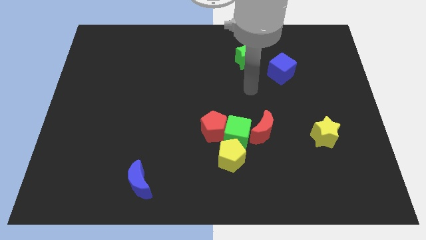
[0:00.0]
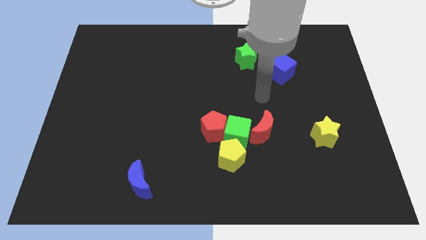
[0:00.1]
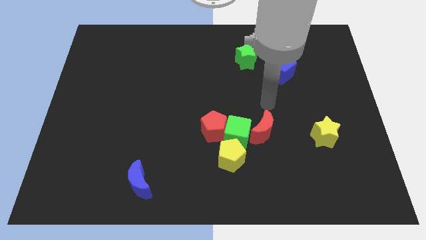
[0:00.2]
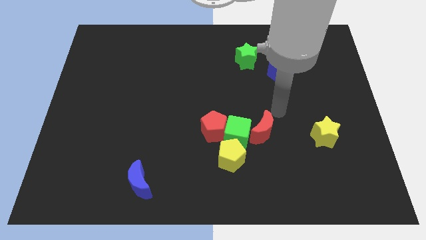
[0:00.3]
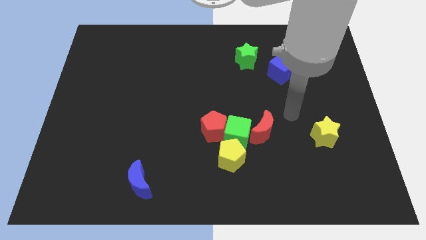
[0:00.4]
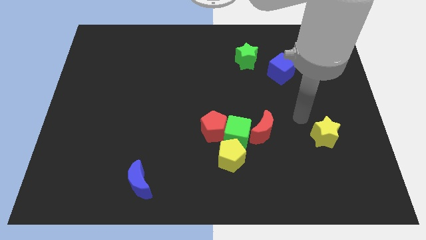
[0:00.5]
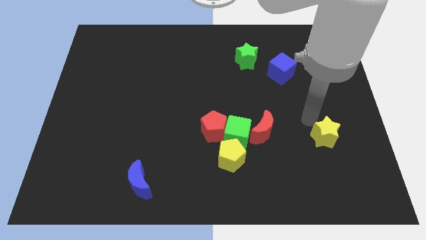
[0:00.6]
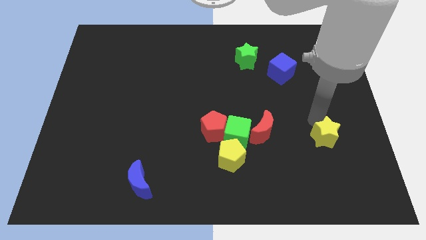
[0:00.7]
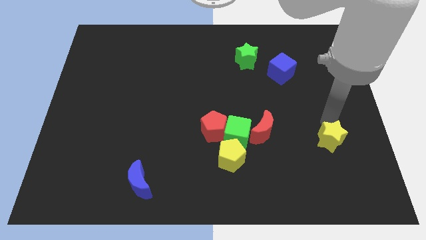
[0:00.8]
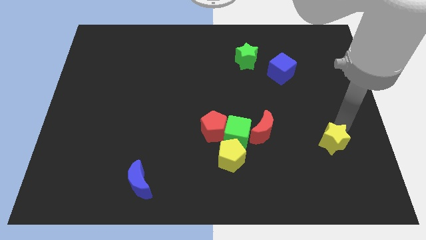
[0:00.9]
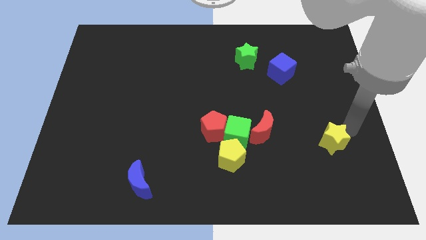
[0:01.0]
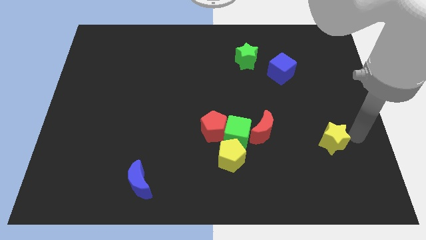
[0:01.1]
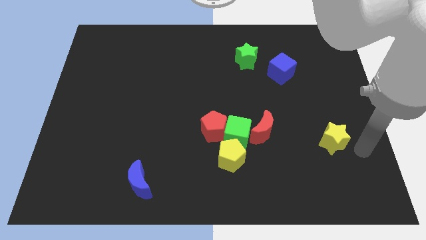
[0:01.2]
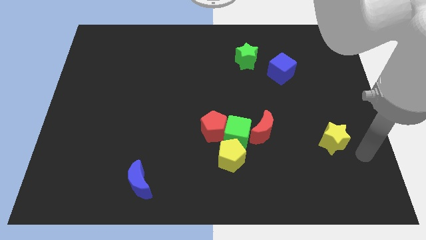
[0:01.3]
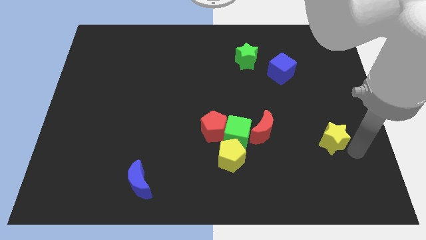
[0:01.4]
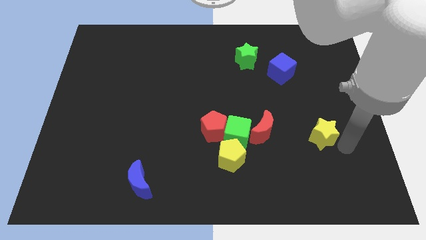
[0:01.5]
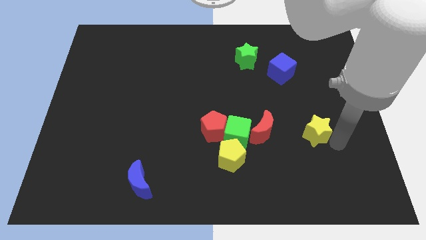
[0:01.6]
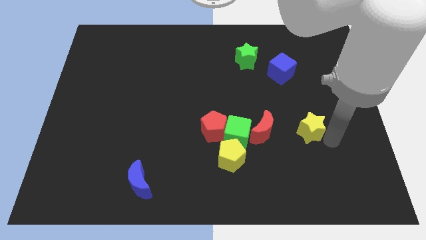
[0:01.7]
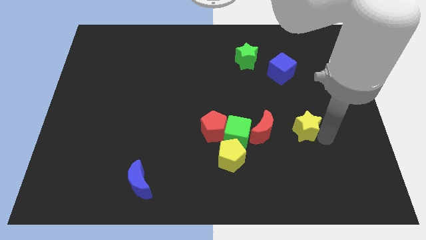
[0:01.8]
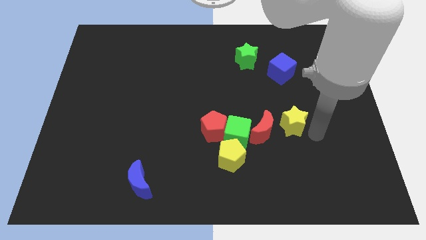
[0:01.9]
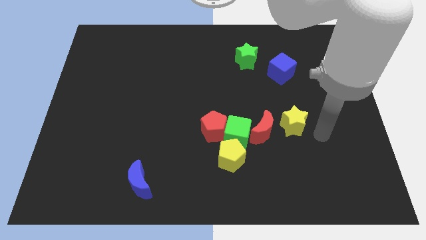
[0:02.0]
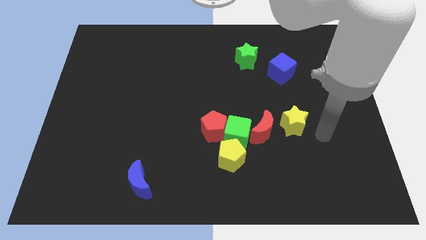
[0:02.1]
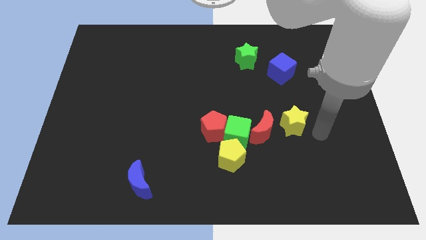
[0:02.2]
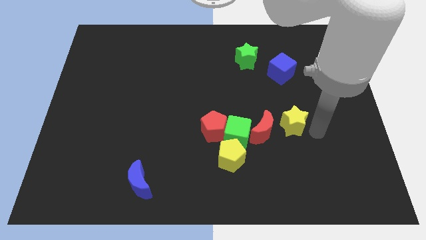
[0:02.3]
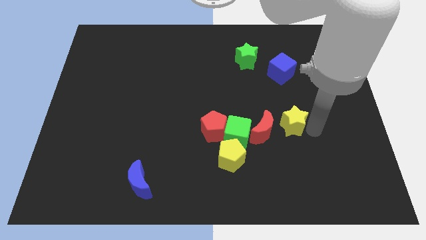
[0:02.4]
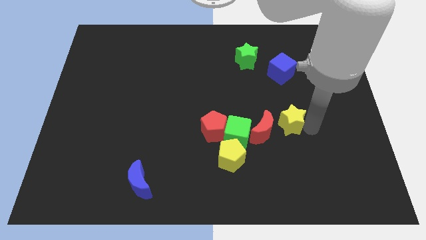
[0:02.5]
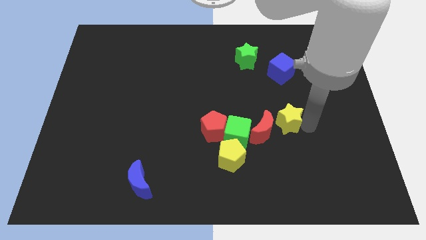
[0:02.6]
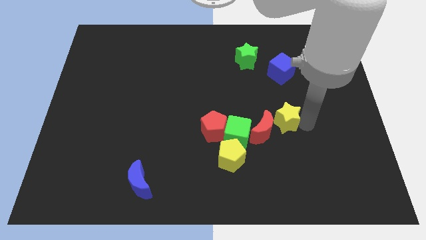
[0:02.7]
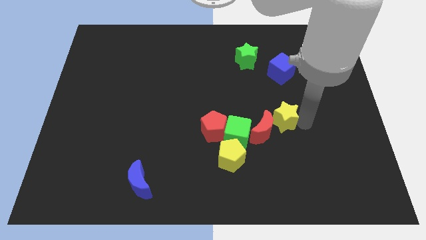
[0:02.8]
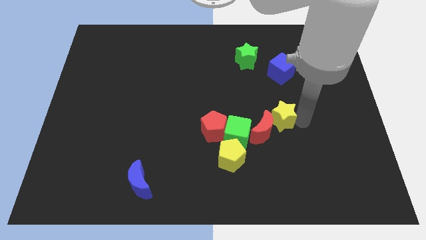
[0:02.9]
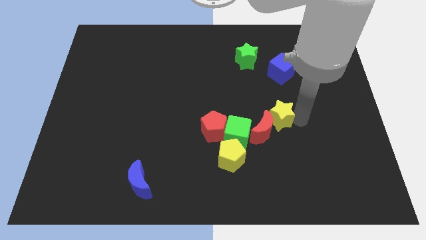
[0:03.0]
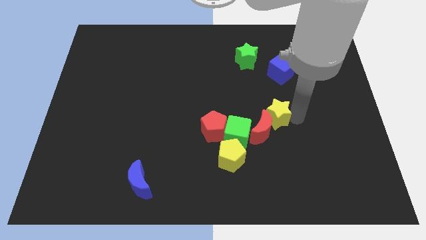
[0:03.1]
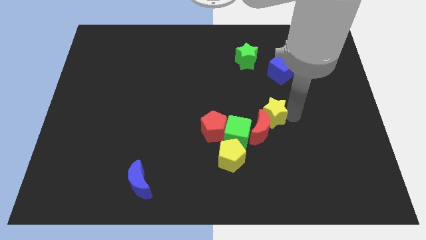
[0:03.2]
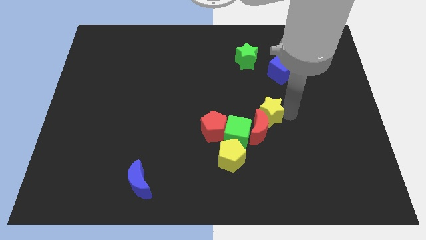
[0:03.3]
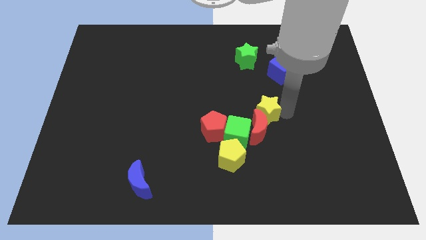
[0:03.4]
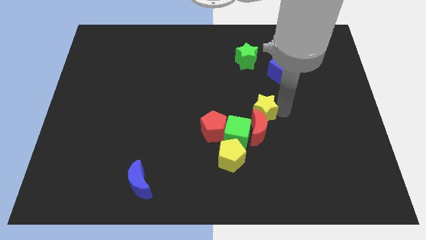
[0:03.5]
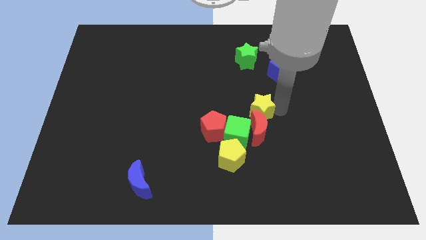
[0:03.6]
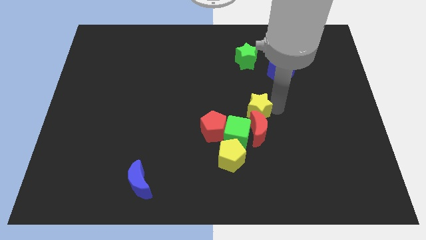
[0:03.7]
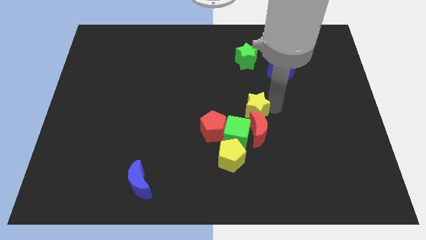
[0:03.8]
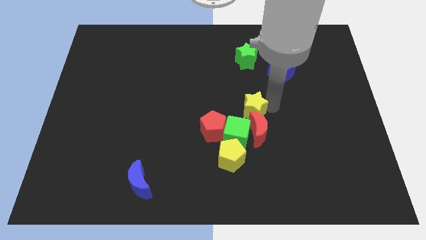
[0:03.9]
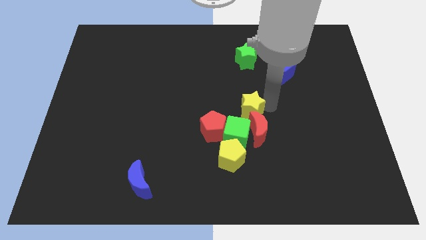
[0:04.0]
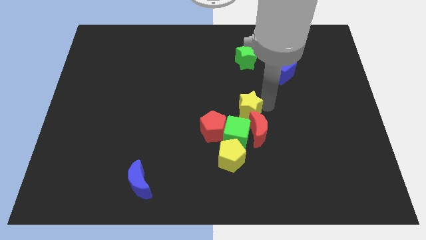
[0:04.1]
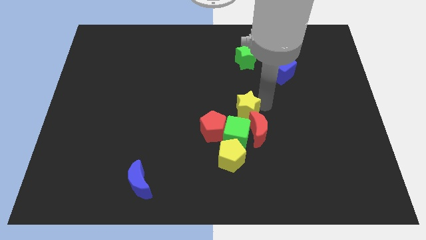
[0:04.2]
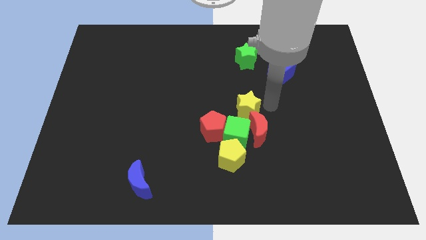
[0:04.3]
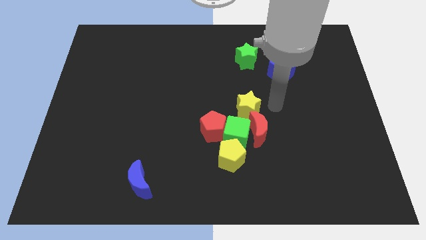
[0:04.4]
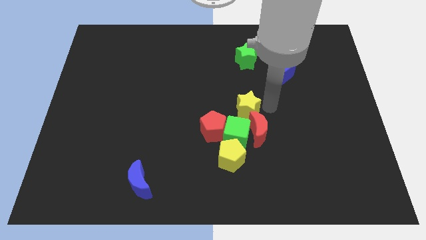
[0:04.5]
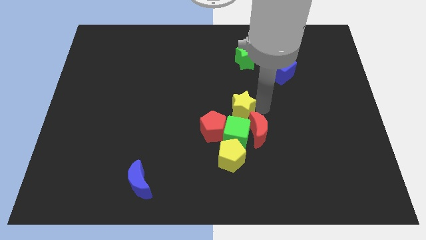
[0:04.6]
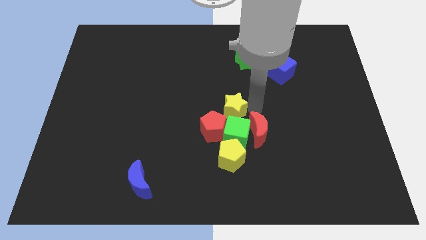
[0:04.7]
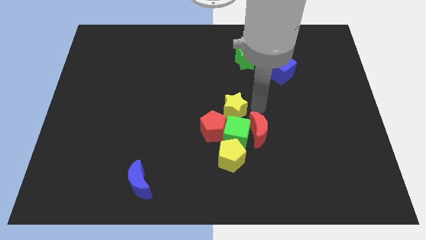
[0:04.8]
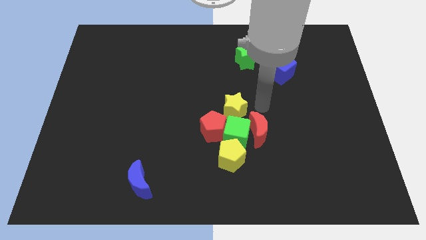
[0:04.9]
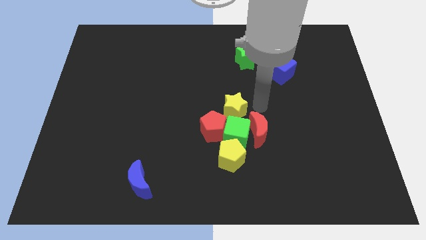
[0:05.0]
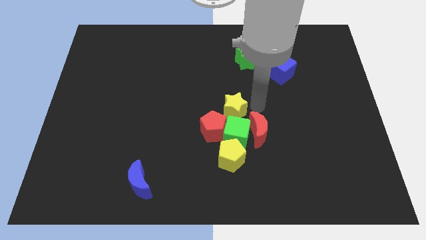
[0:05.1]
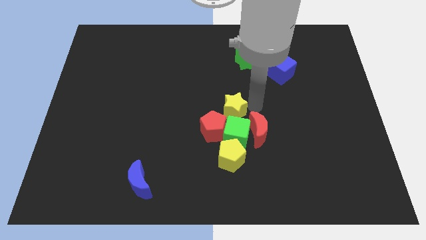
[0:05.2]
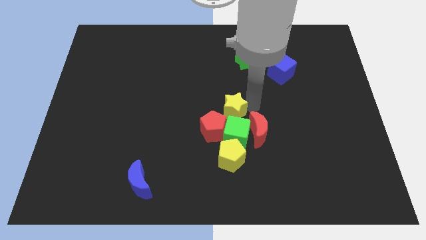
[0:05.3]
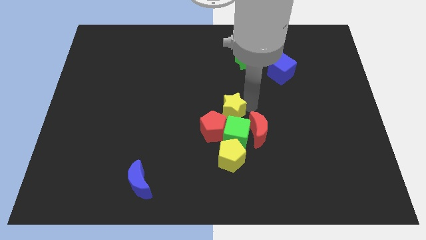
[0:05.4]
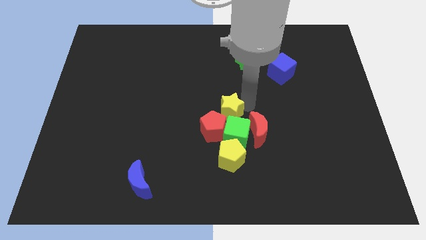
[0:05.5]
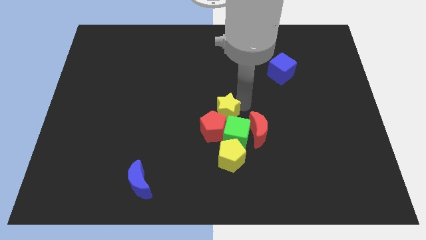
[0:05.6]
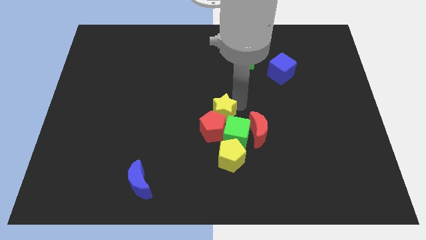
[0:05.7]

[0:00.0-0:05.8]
slide the yellow star left

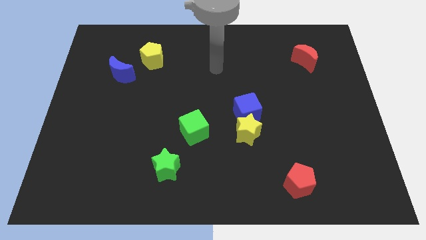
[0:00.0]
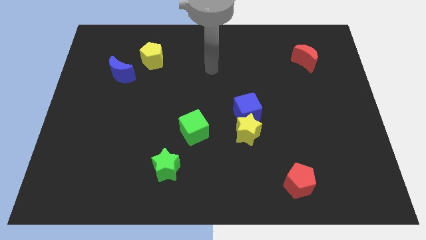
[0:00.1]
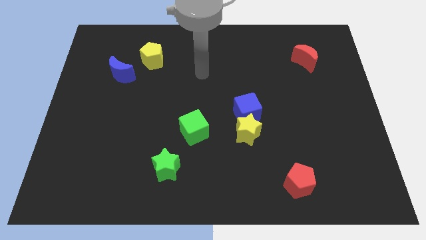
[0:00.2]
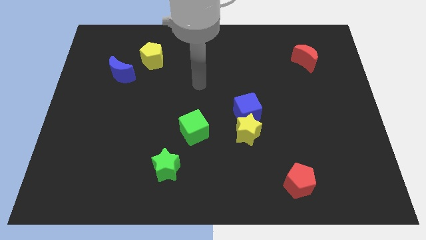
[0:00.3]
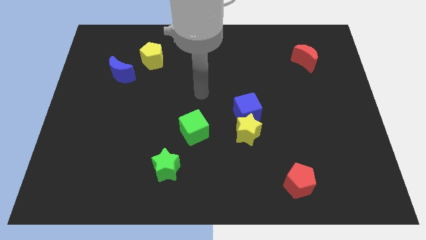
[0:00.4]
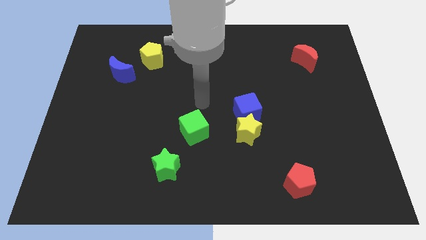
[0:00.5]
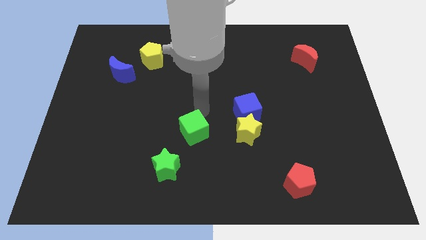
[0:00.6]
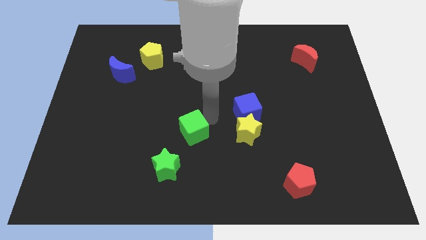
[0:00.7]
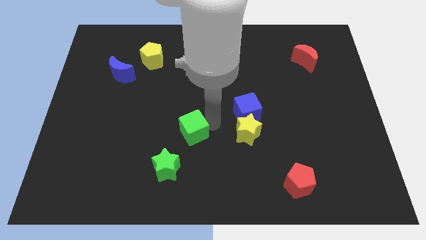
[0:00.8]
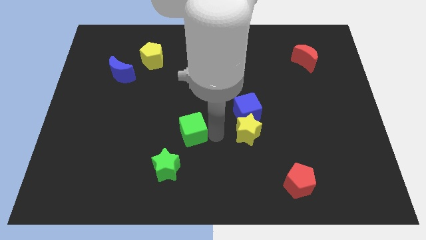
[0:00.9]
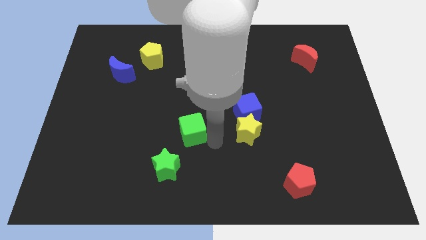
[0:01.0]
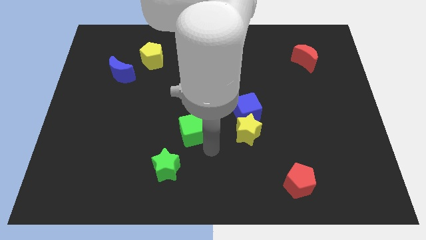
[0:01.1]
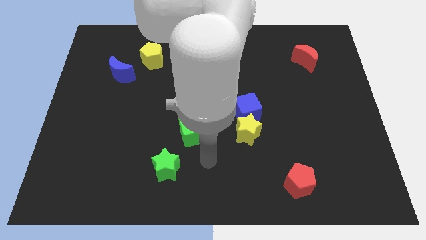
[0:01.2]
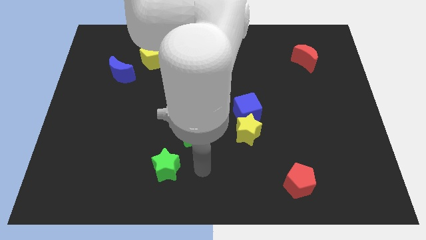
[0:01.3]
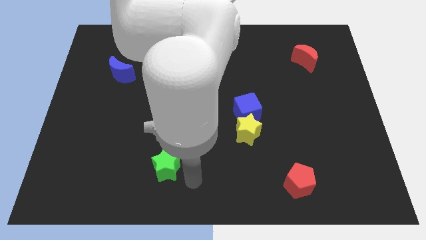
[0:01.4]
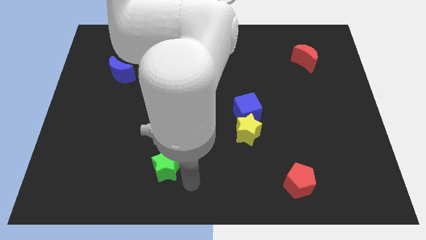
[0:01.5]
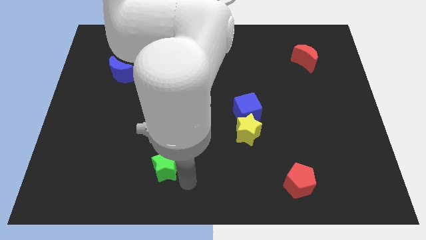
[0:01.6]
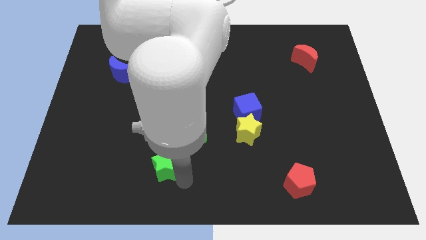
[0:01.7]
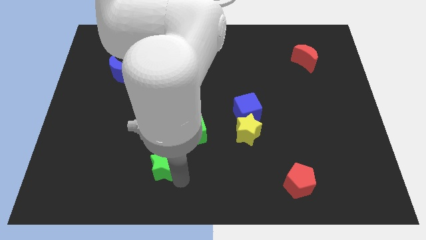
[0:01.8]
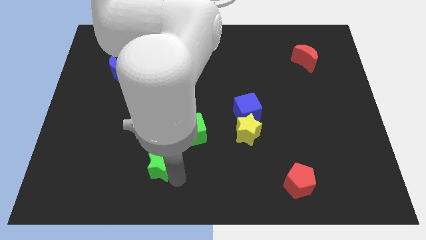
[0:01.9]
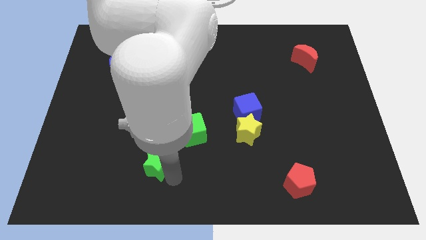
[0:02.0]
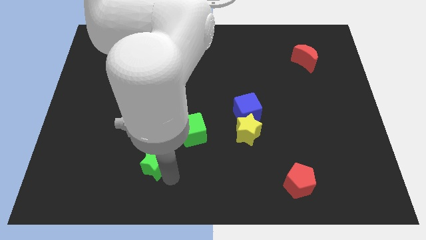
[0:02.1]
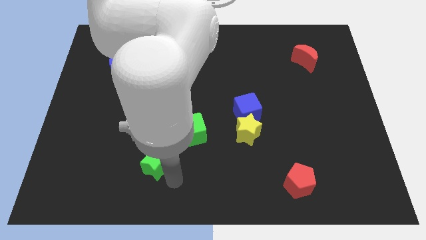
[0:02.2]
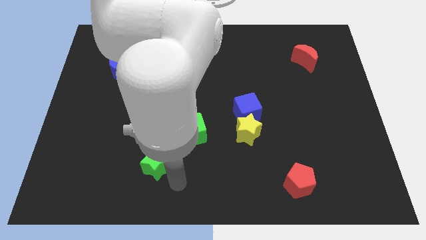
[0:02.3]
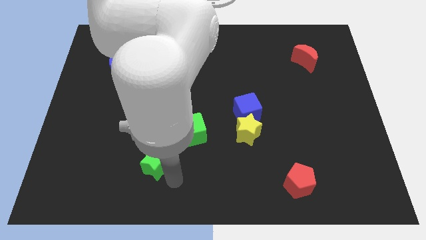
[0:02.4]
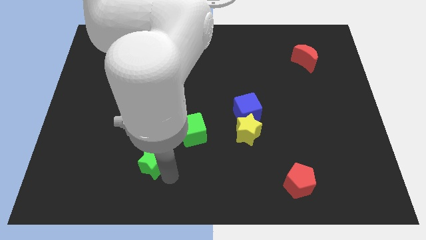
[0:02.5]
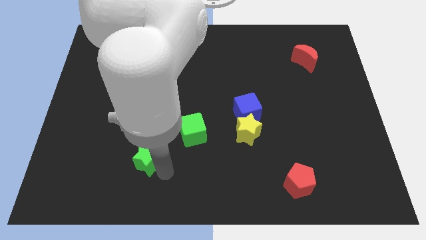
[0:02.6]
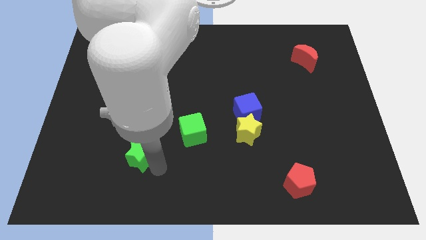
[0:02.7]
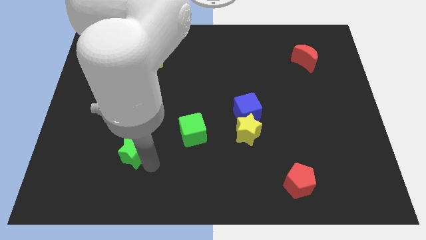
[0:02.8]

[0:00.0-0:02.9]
slightly move the green star upwards and to the left diagonally
